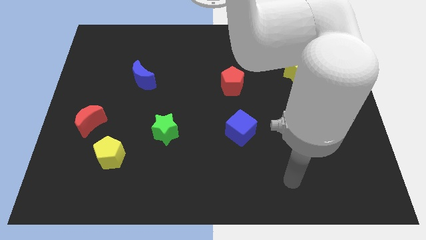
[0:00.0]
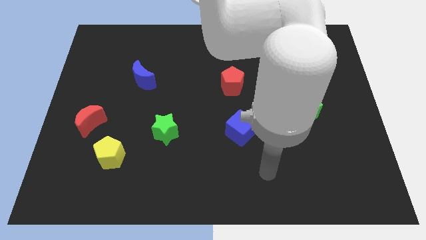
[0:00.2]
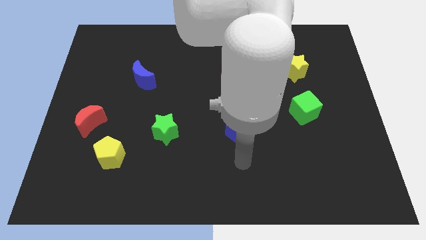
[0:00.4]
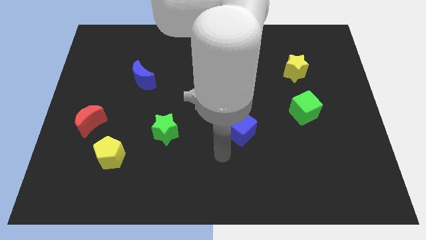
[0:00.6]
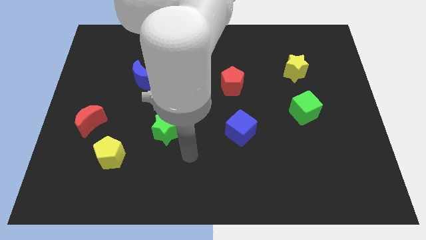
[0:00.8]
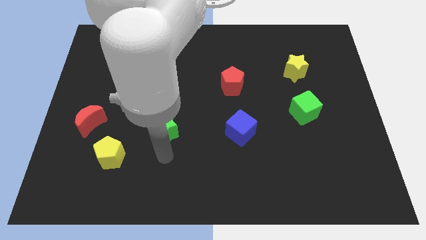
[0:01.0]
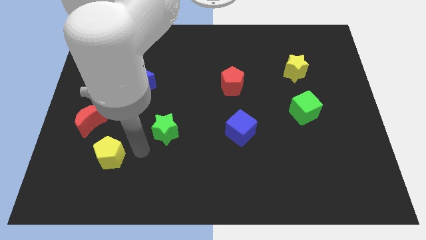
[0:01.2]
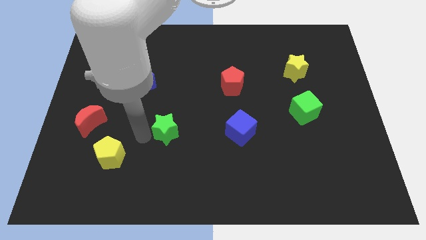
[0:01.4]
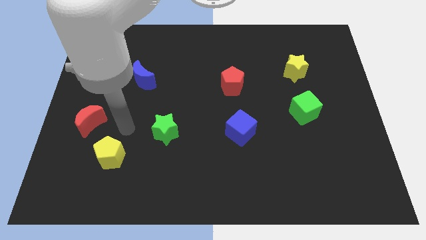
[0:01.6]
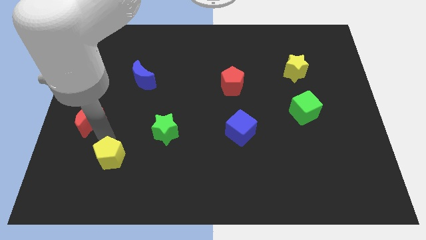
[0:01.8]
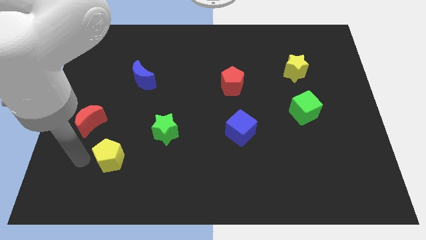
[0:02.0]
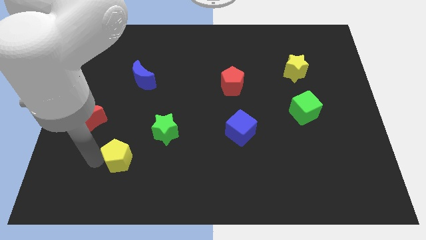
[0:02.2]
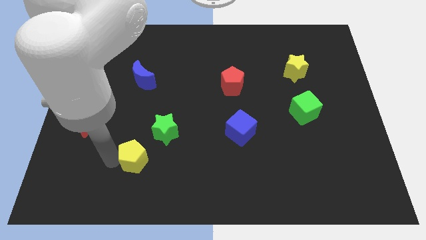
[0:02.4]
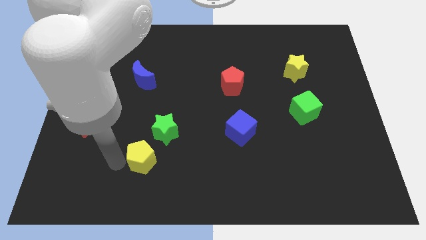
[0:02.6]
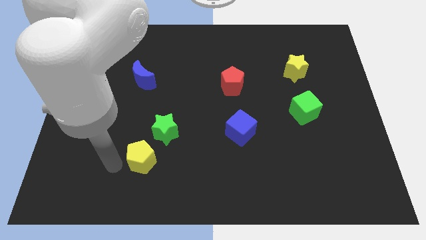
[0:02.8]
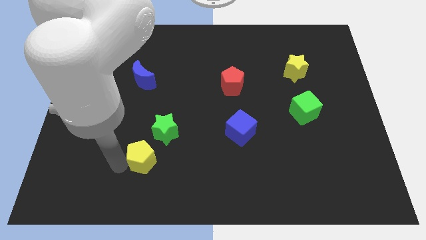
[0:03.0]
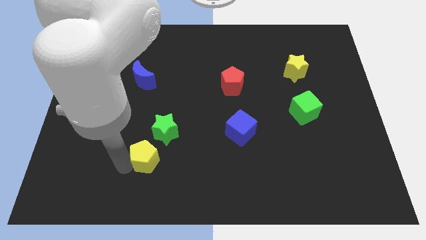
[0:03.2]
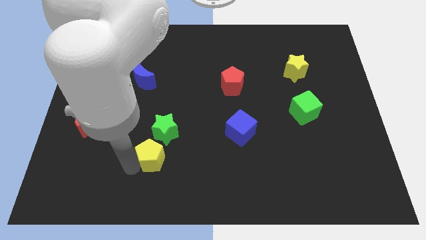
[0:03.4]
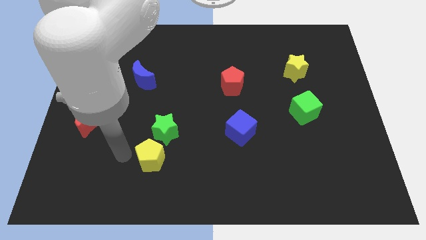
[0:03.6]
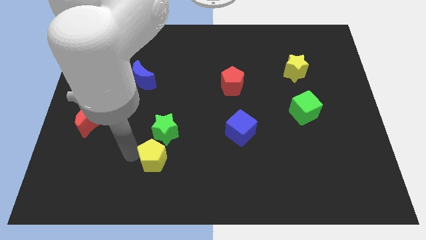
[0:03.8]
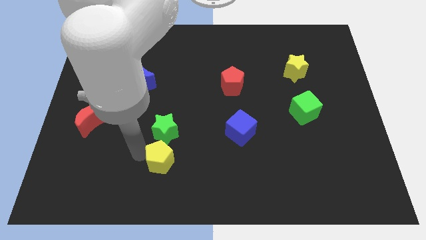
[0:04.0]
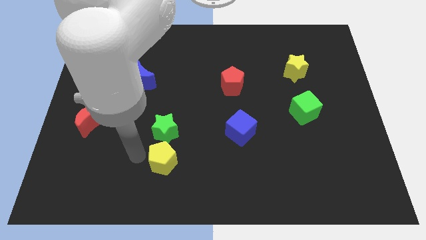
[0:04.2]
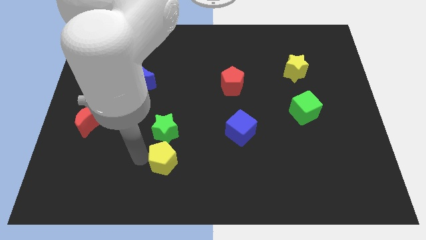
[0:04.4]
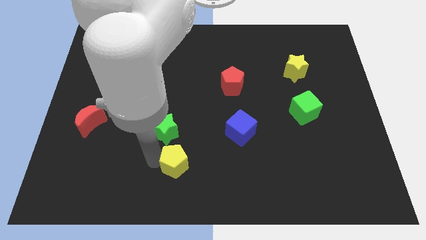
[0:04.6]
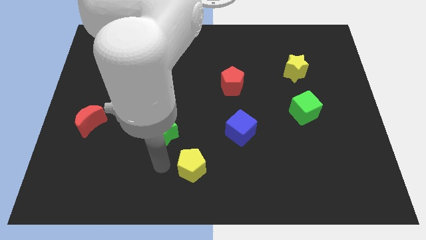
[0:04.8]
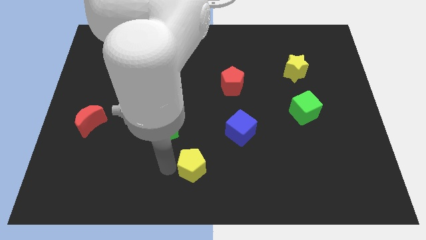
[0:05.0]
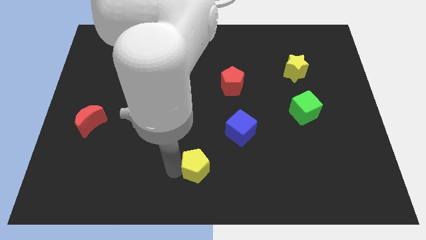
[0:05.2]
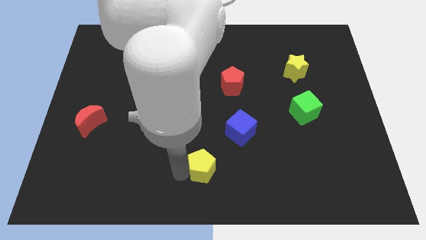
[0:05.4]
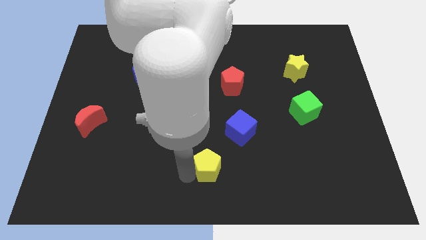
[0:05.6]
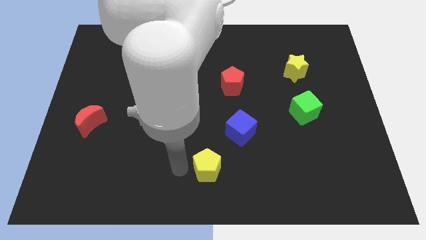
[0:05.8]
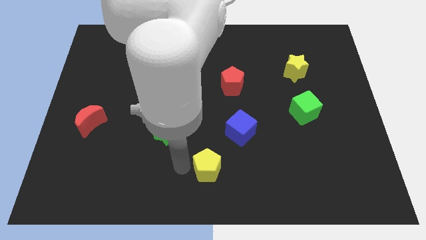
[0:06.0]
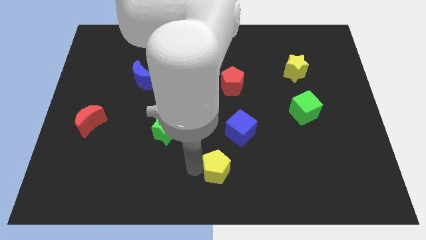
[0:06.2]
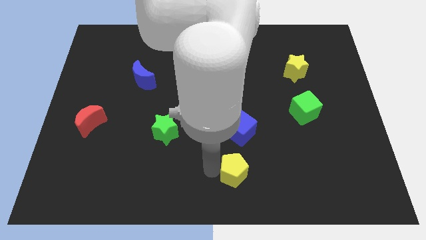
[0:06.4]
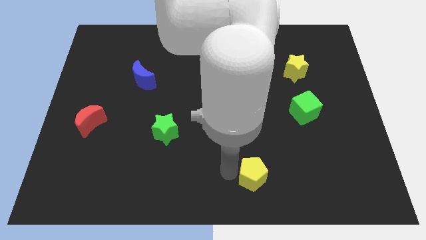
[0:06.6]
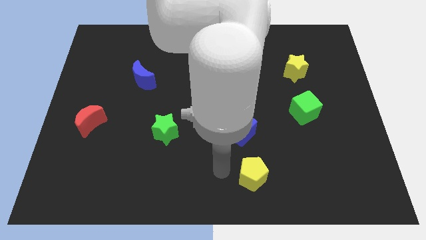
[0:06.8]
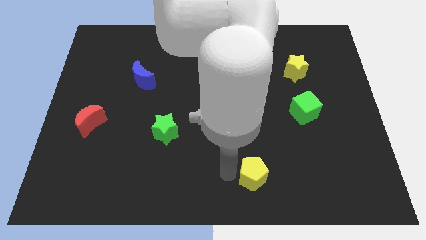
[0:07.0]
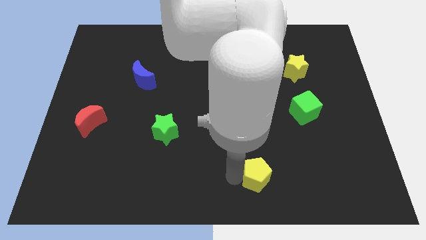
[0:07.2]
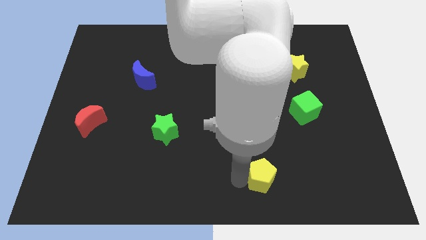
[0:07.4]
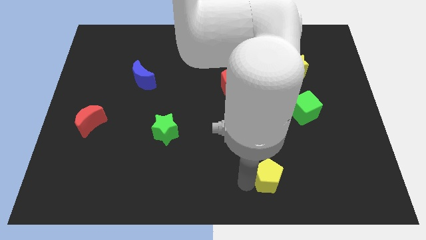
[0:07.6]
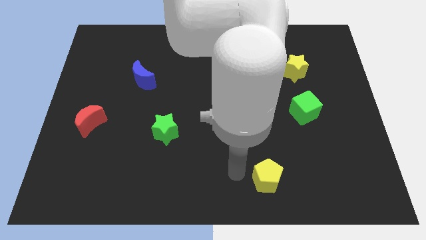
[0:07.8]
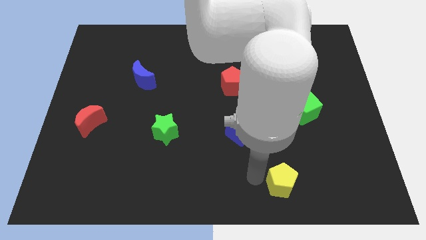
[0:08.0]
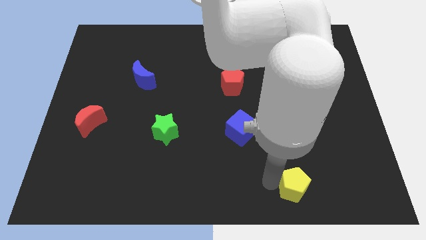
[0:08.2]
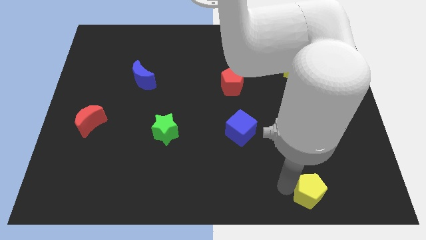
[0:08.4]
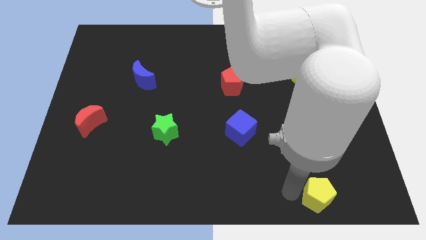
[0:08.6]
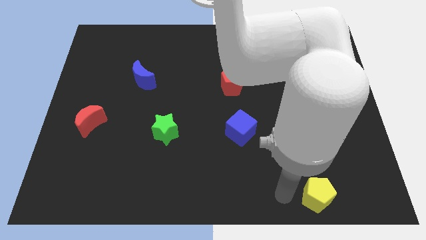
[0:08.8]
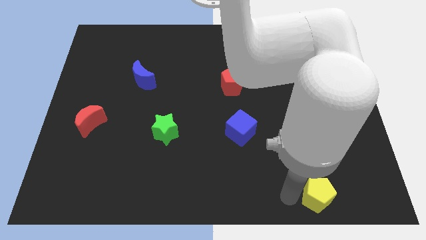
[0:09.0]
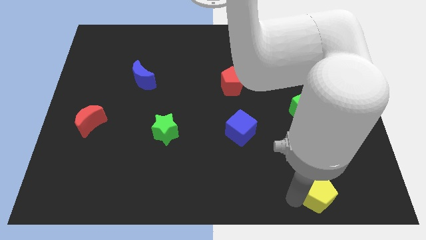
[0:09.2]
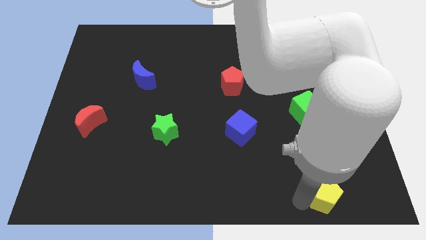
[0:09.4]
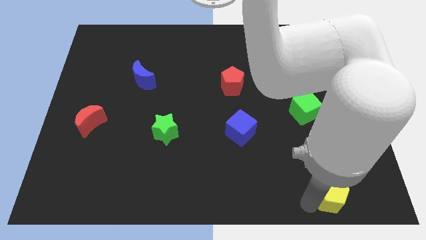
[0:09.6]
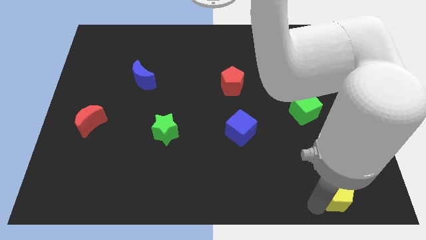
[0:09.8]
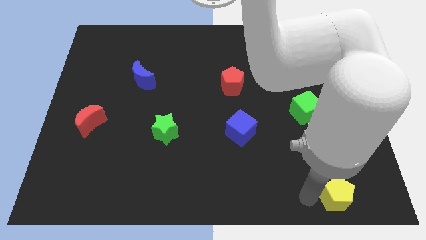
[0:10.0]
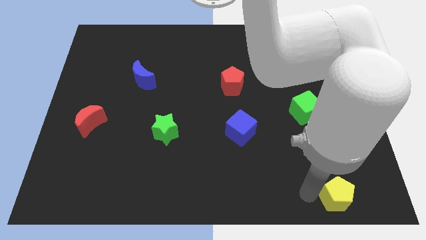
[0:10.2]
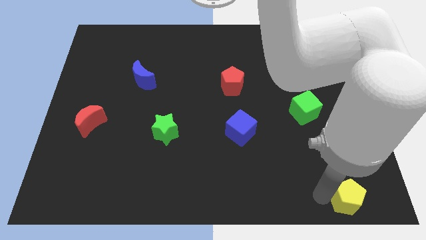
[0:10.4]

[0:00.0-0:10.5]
push the yellow pentagon to the bottom right of the board
